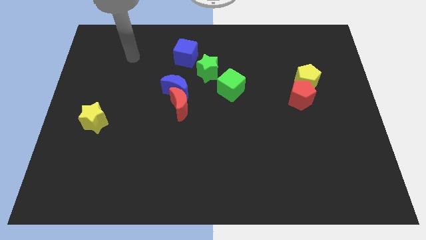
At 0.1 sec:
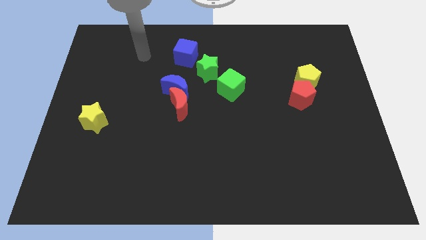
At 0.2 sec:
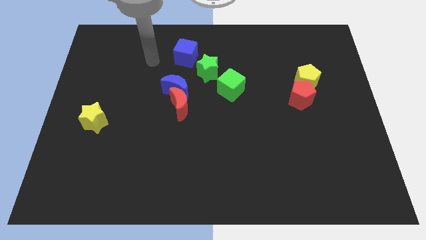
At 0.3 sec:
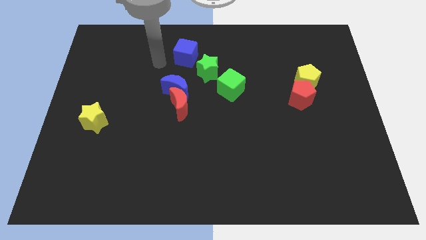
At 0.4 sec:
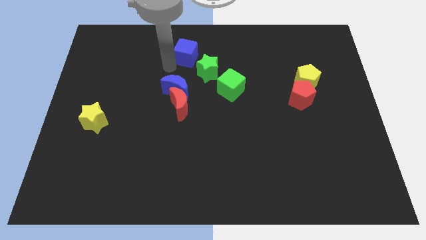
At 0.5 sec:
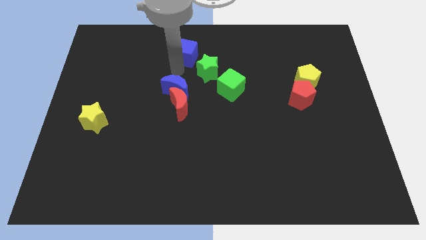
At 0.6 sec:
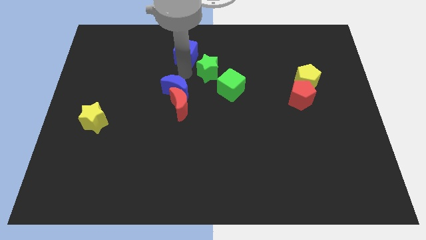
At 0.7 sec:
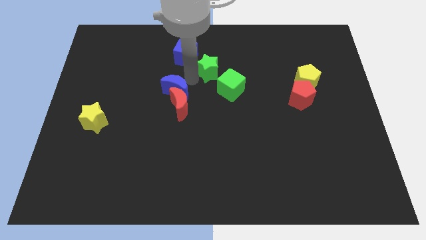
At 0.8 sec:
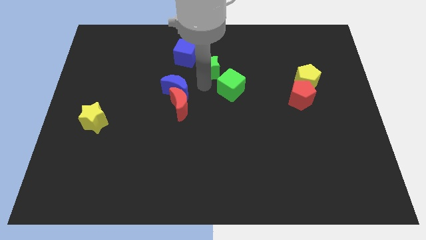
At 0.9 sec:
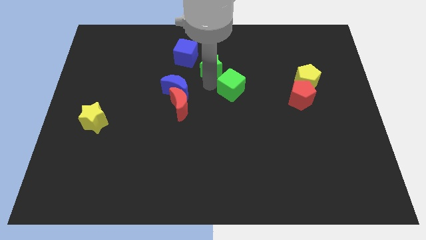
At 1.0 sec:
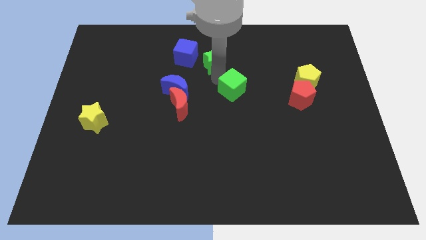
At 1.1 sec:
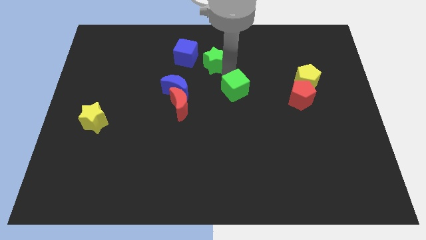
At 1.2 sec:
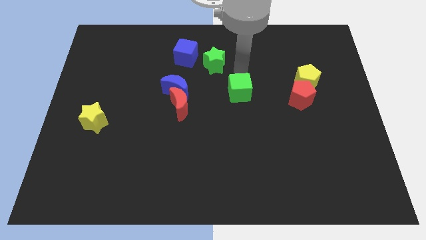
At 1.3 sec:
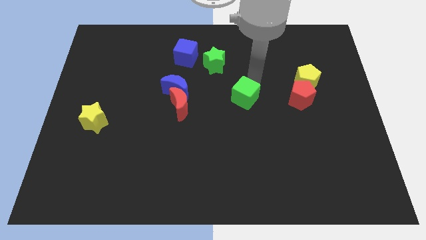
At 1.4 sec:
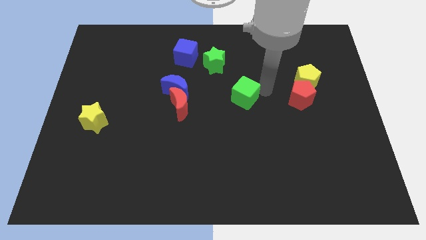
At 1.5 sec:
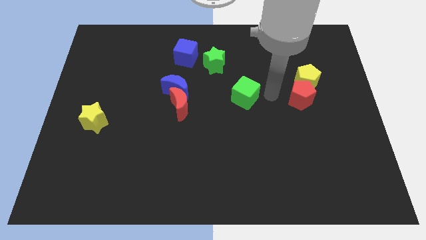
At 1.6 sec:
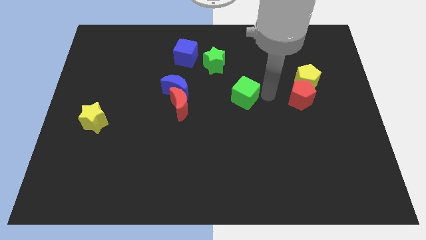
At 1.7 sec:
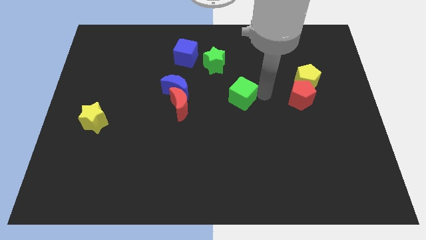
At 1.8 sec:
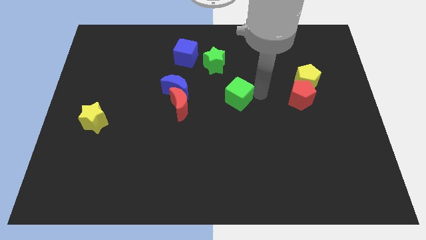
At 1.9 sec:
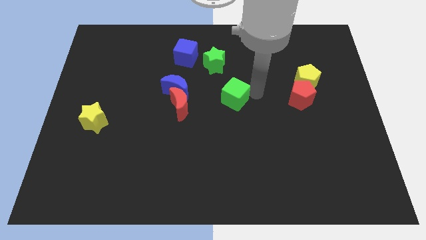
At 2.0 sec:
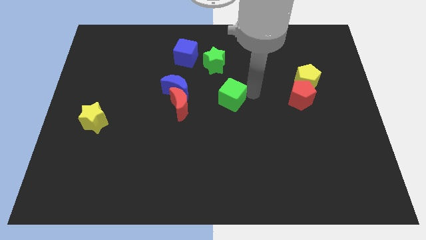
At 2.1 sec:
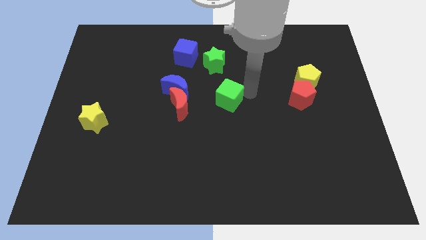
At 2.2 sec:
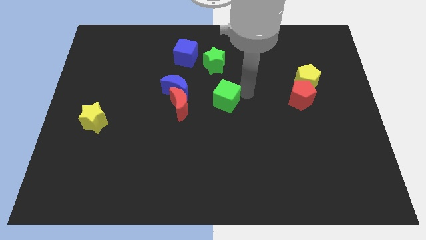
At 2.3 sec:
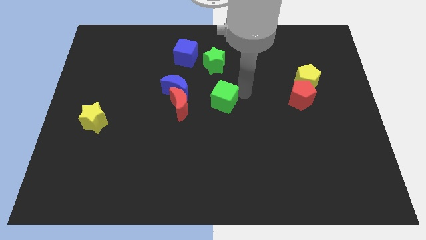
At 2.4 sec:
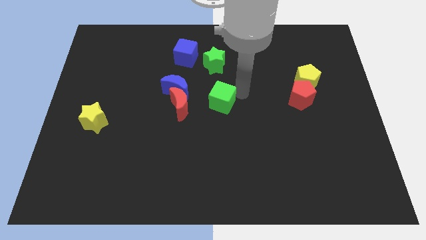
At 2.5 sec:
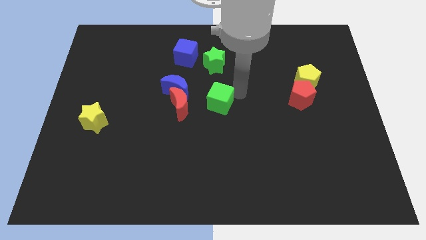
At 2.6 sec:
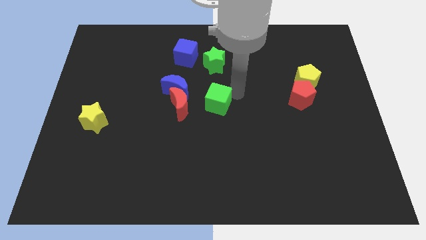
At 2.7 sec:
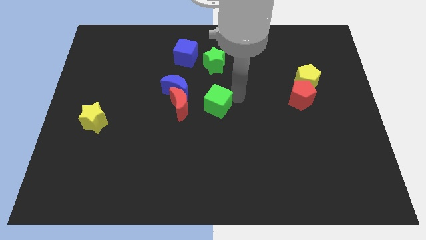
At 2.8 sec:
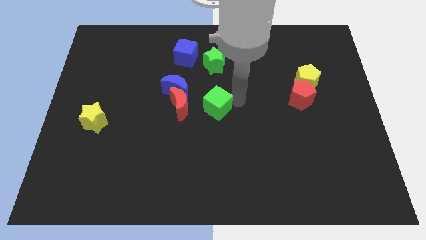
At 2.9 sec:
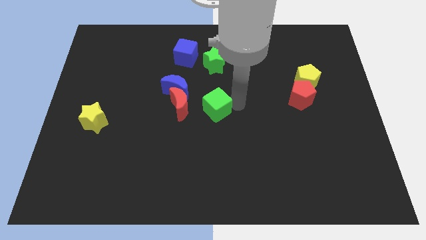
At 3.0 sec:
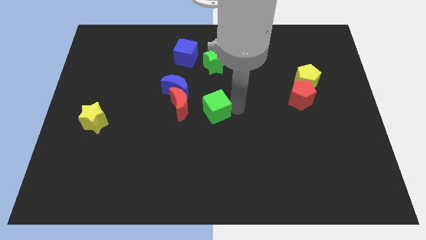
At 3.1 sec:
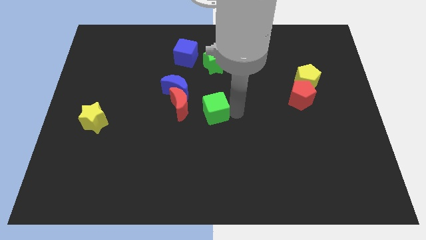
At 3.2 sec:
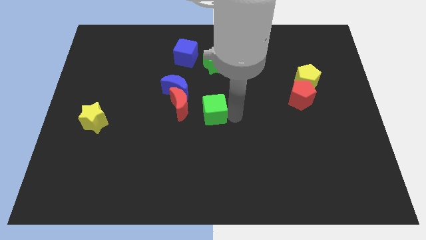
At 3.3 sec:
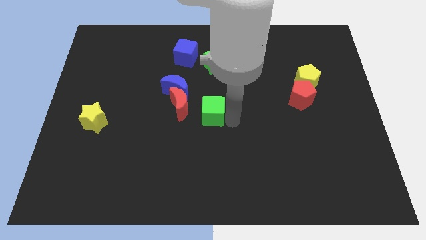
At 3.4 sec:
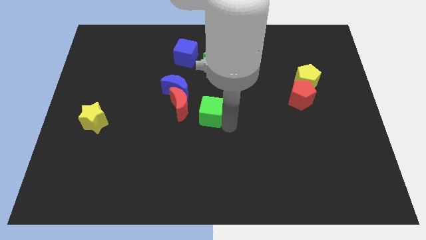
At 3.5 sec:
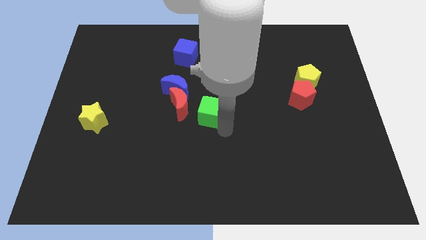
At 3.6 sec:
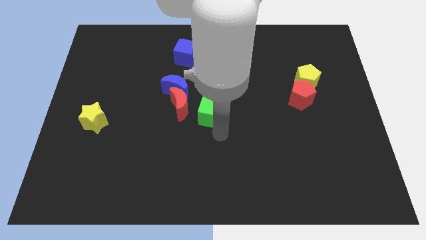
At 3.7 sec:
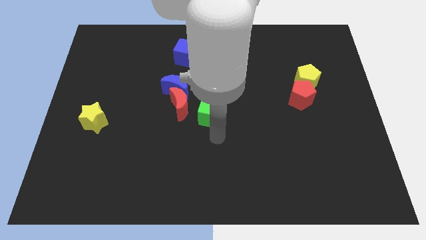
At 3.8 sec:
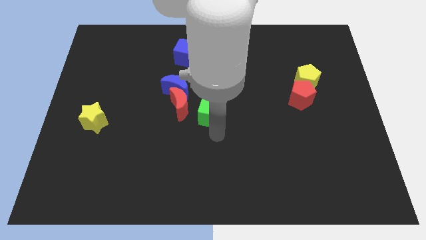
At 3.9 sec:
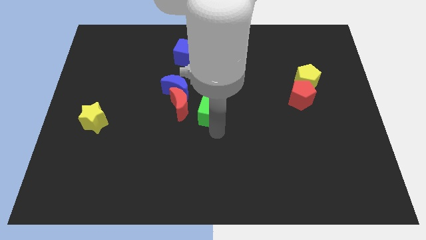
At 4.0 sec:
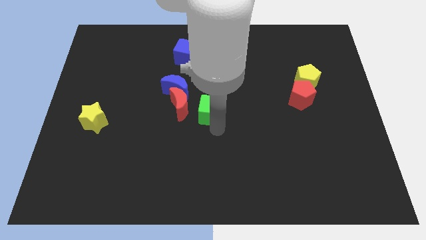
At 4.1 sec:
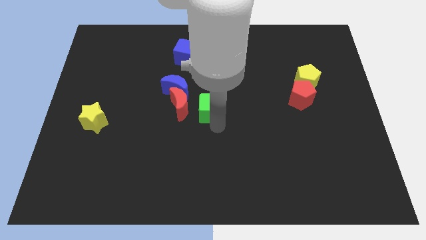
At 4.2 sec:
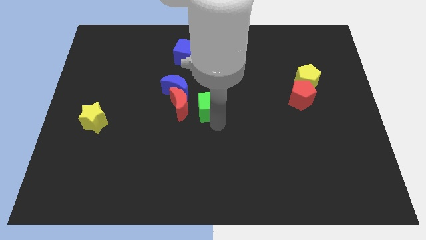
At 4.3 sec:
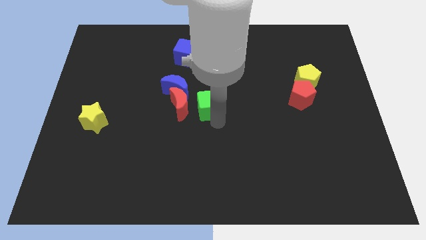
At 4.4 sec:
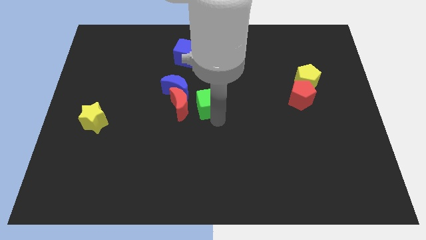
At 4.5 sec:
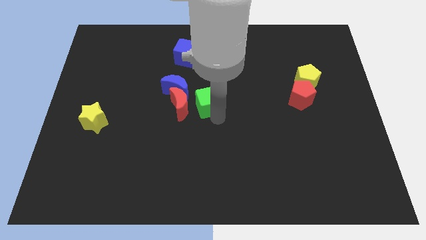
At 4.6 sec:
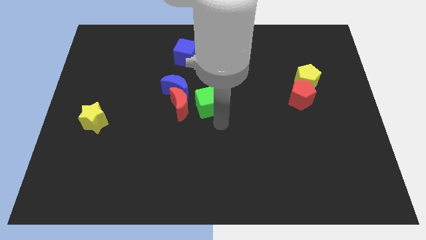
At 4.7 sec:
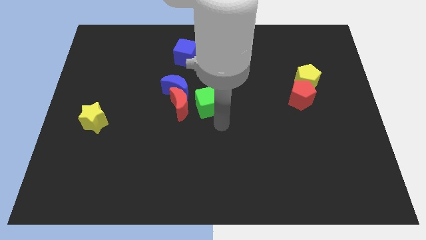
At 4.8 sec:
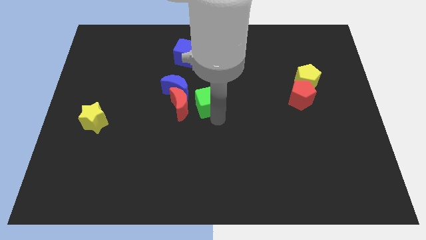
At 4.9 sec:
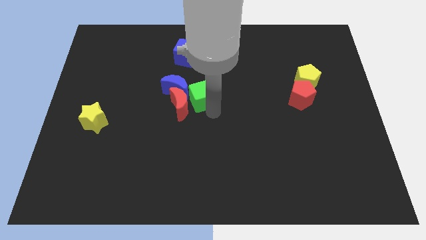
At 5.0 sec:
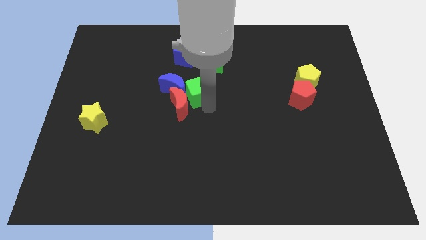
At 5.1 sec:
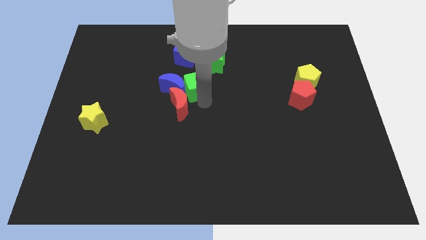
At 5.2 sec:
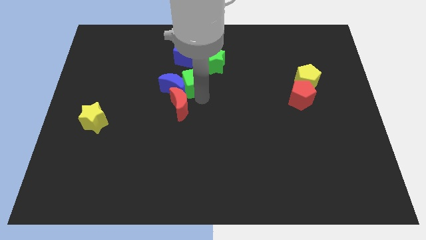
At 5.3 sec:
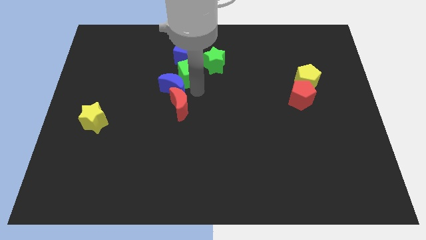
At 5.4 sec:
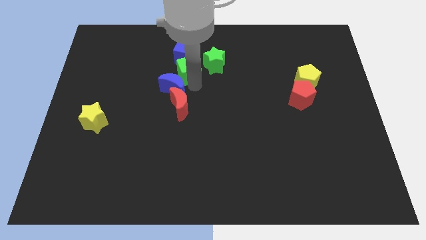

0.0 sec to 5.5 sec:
slide the green cube to the blue cube
